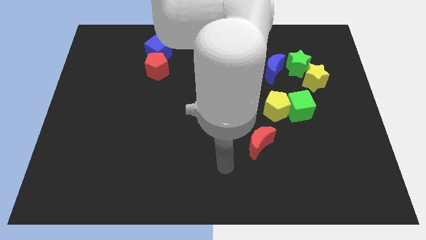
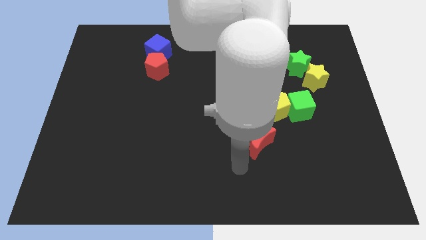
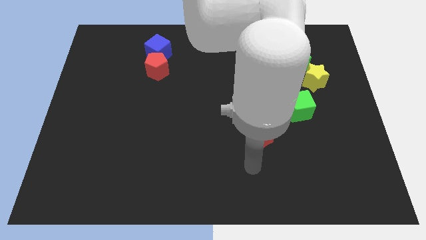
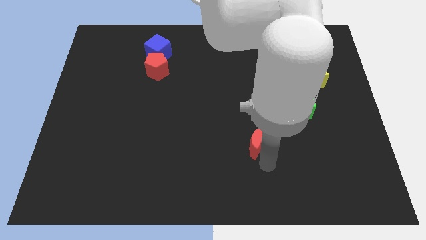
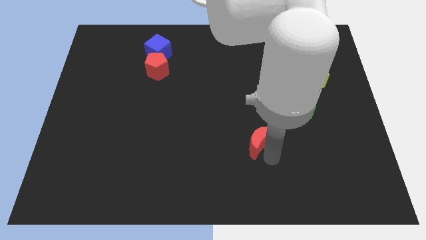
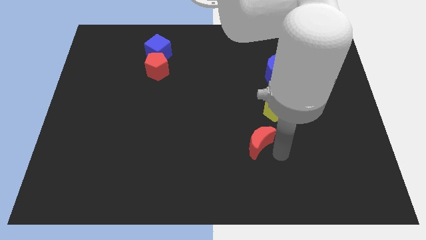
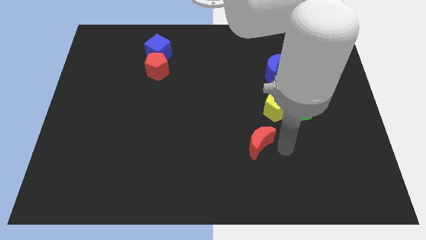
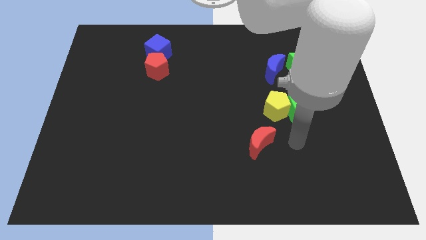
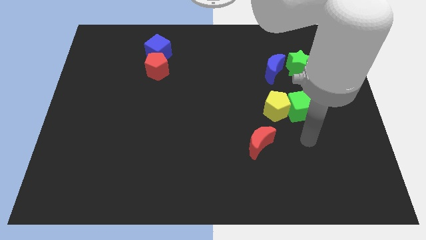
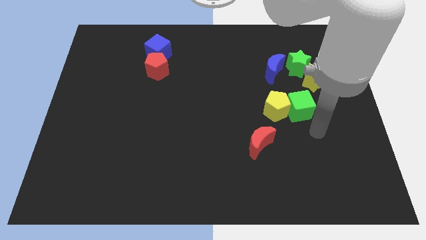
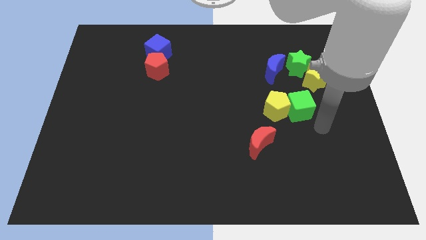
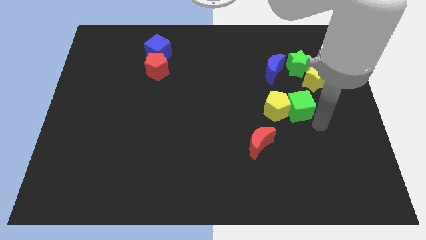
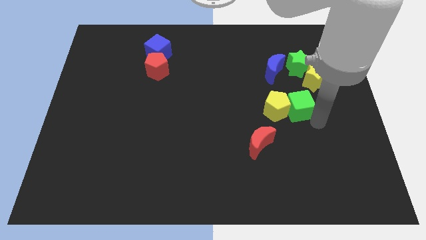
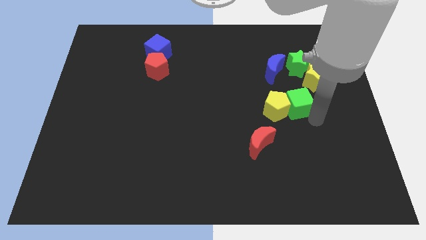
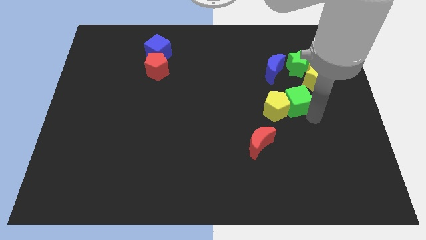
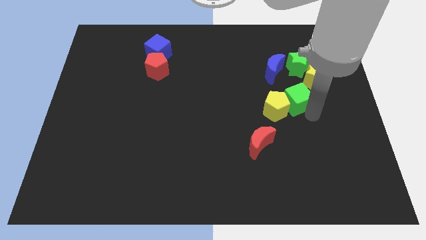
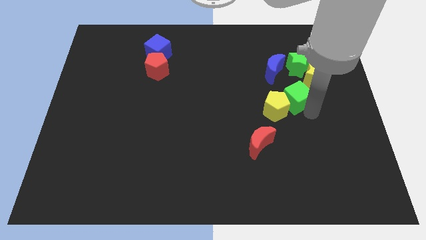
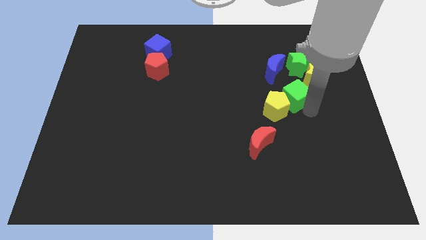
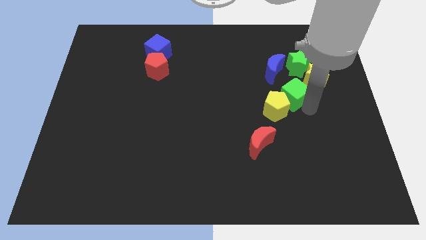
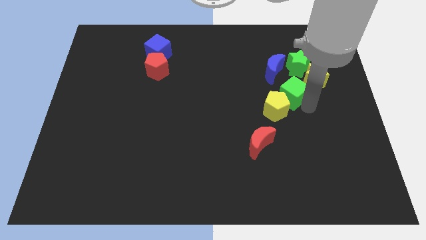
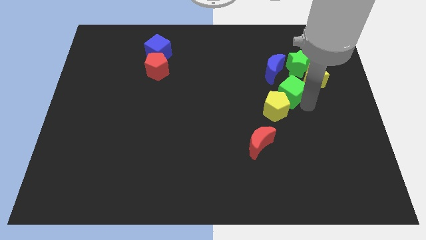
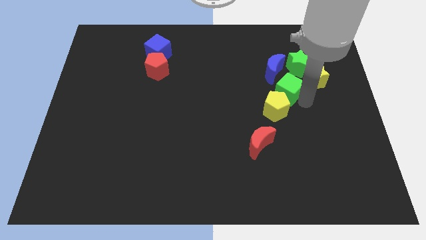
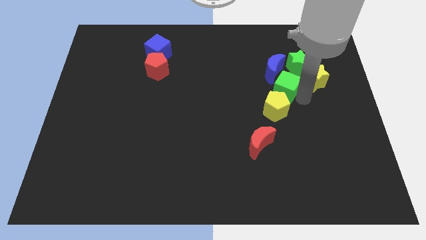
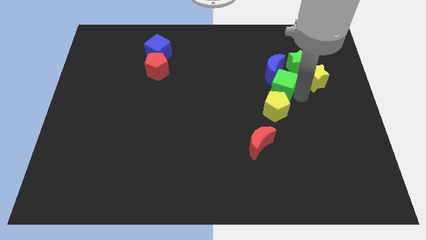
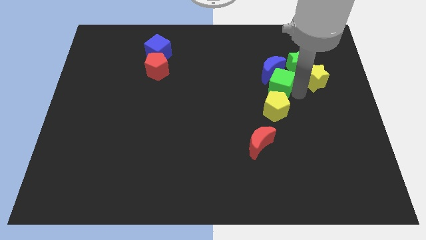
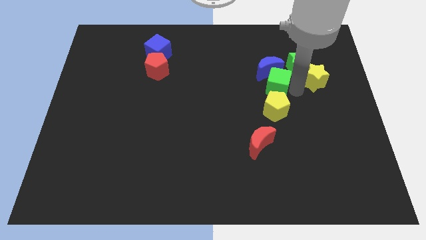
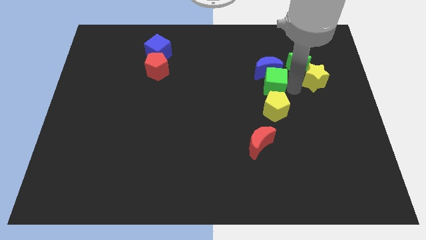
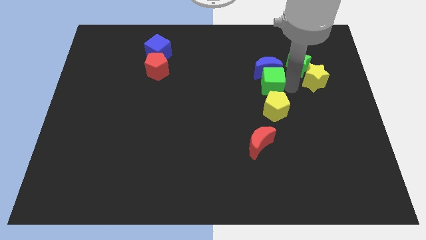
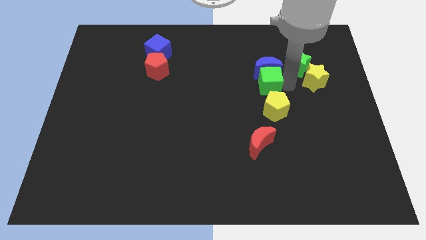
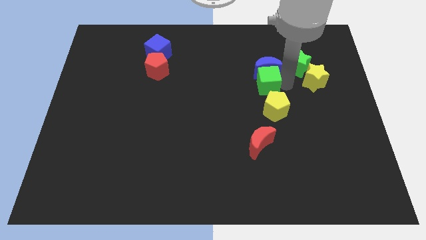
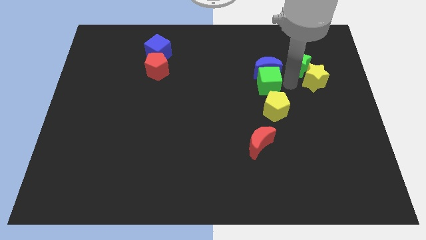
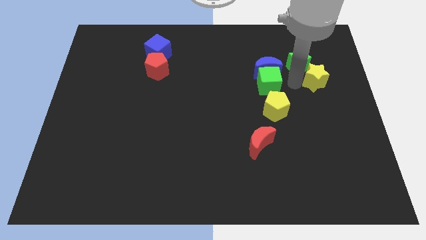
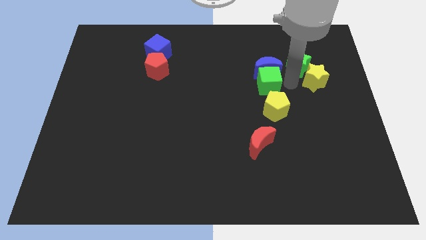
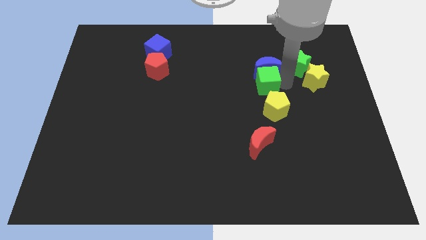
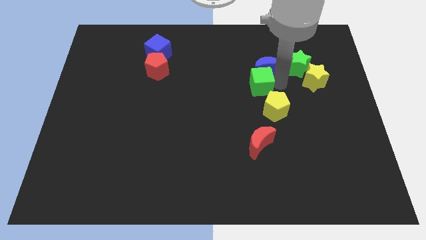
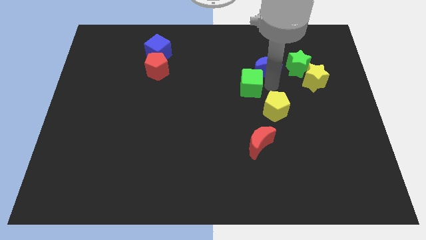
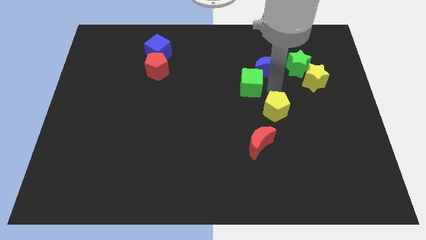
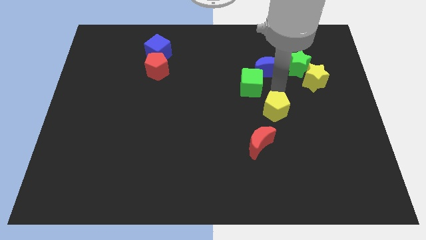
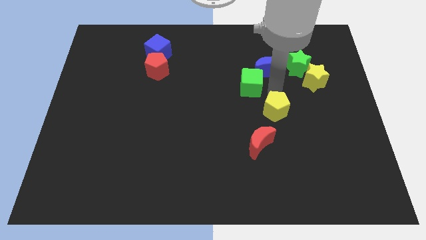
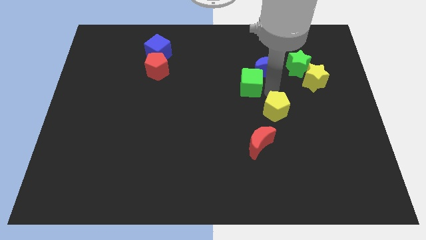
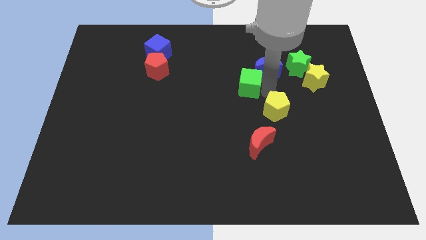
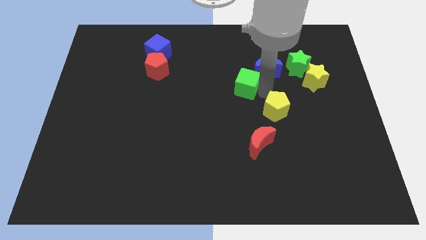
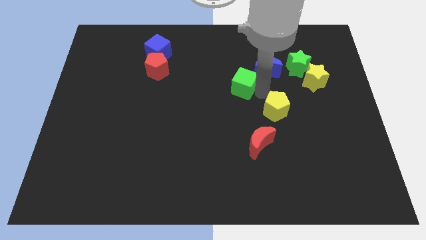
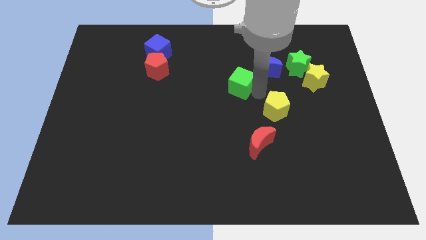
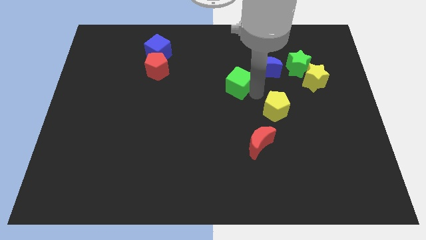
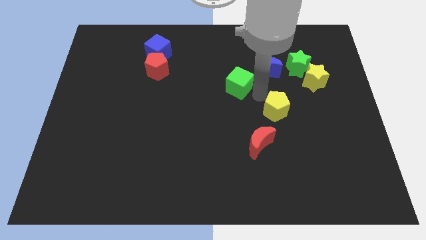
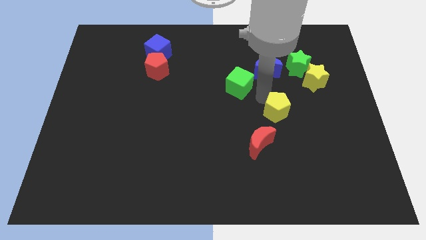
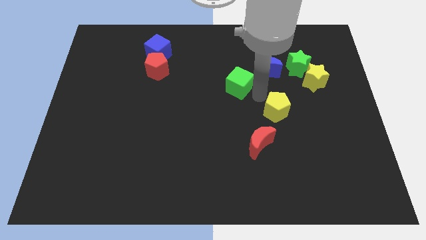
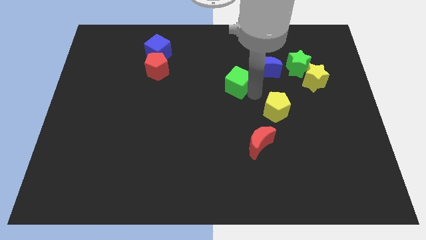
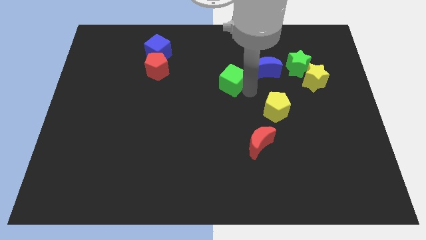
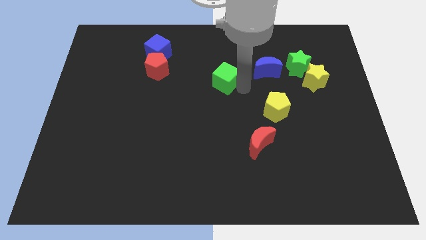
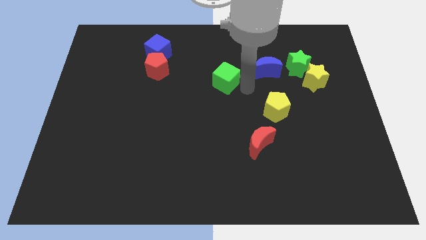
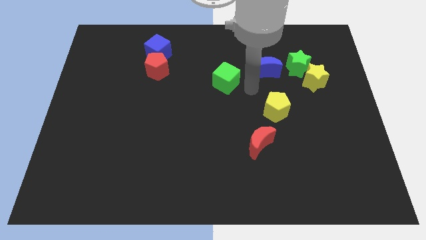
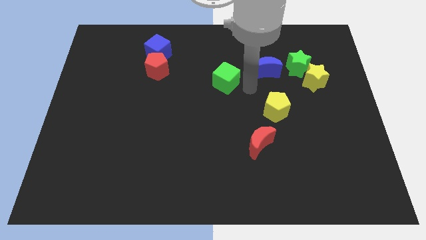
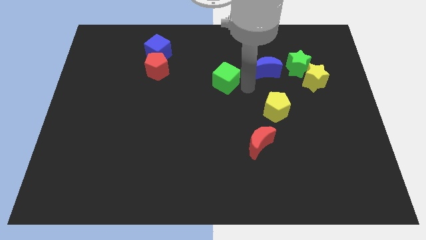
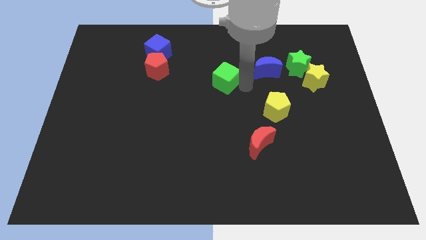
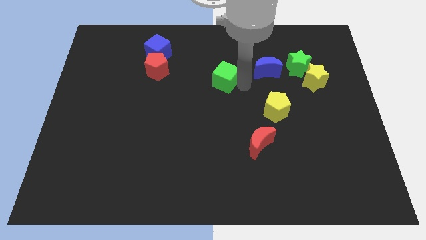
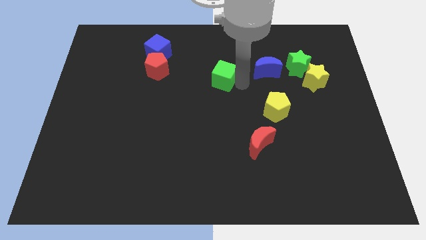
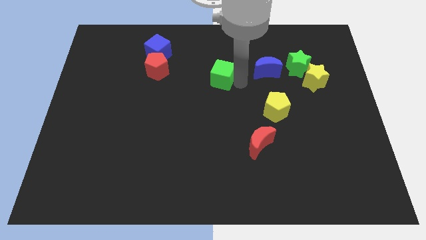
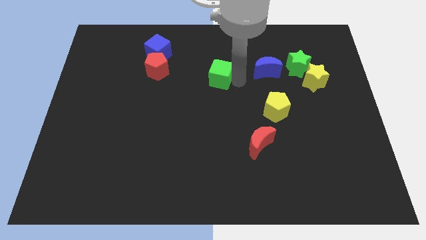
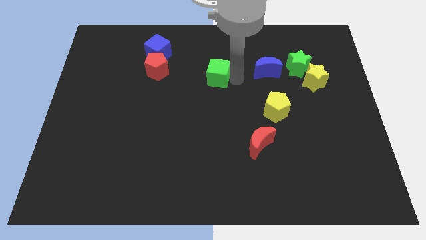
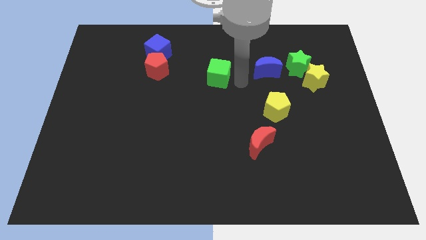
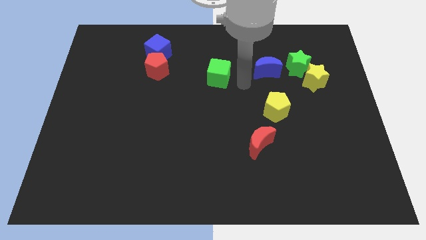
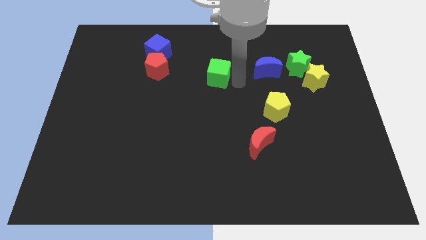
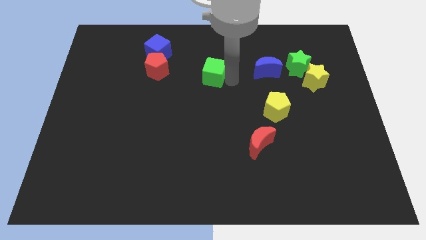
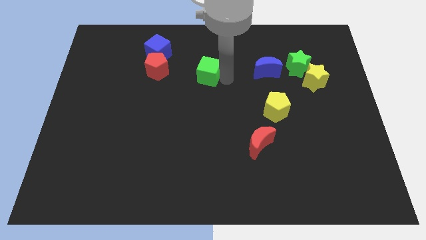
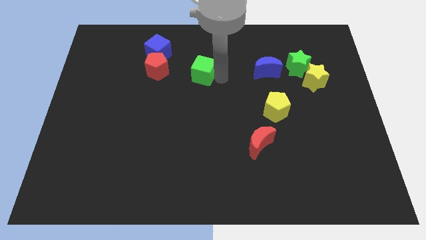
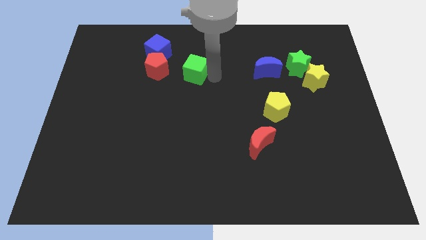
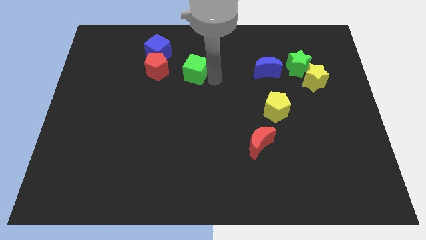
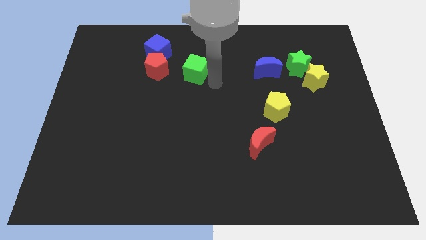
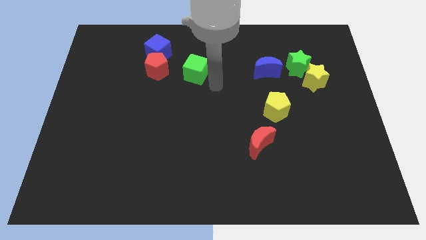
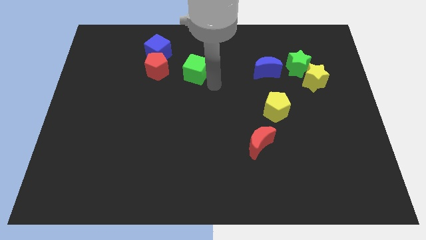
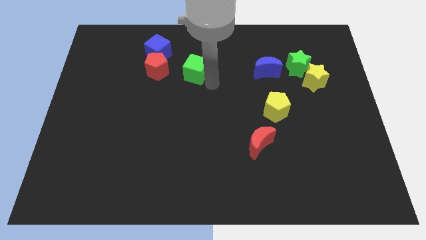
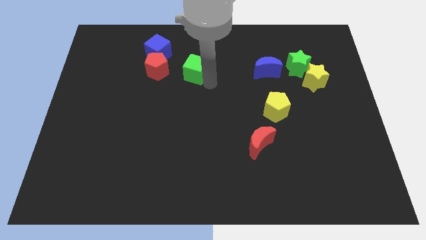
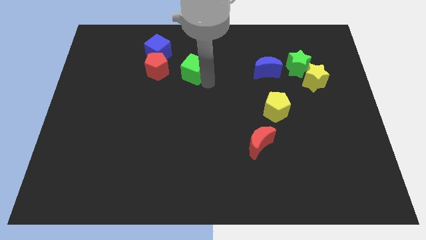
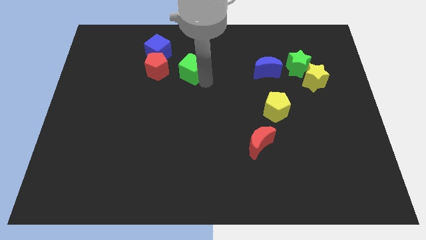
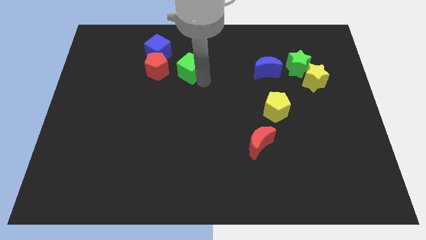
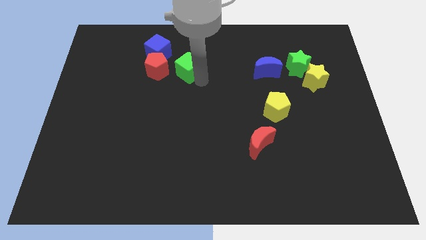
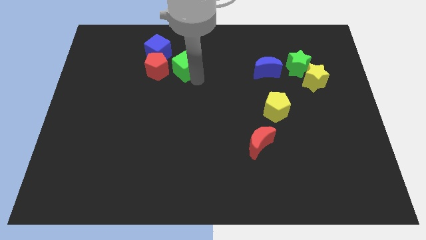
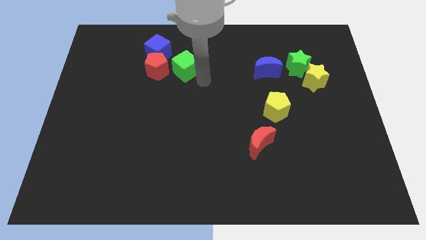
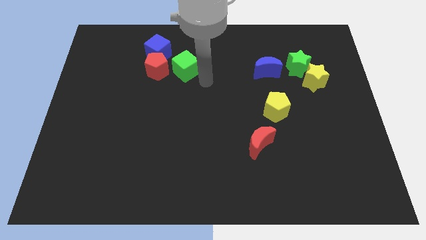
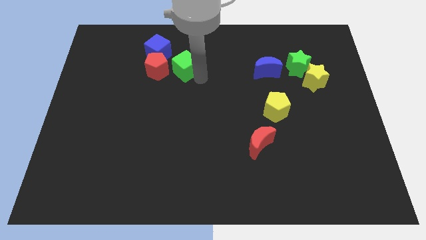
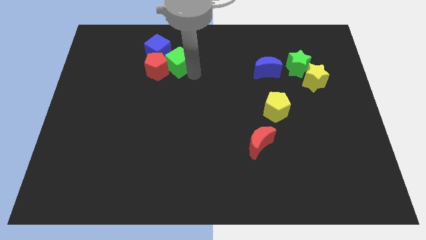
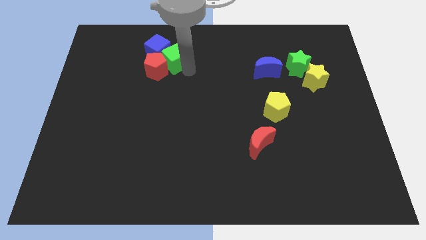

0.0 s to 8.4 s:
slide the green cube next to the blue cube
